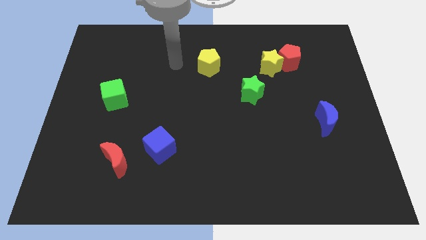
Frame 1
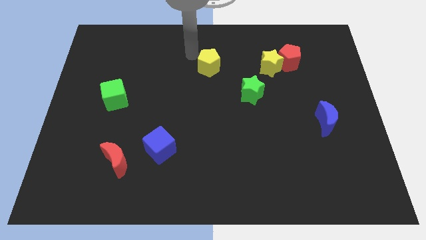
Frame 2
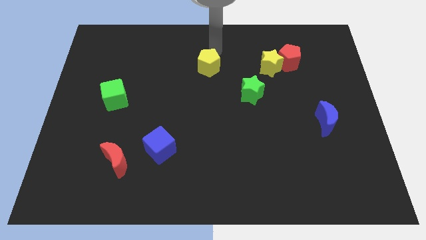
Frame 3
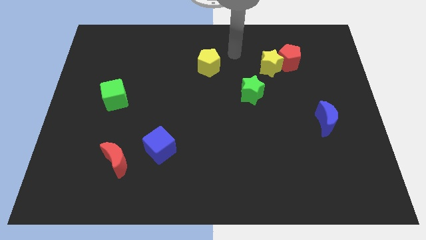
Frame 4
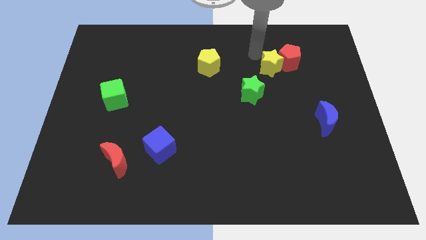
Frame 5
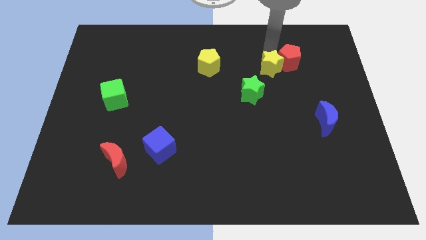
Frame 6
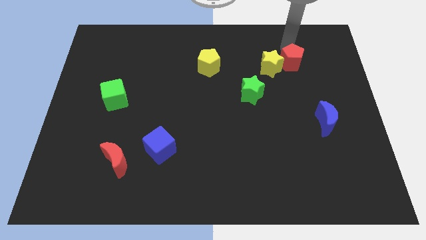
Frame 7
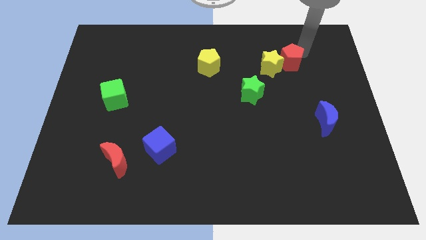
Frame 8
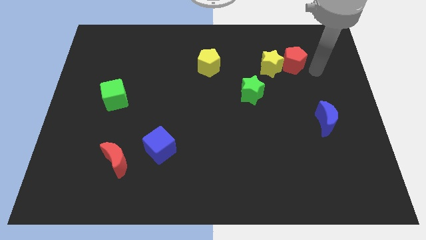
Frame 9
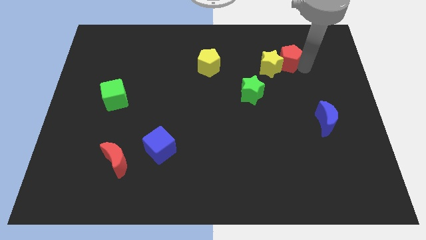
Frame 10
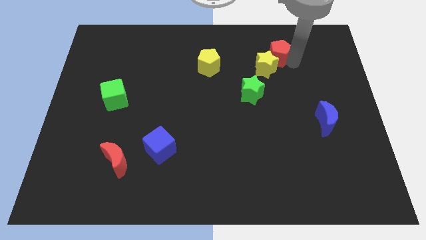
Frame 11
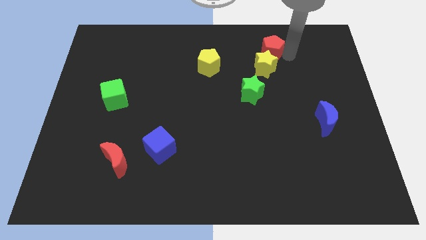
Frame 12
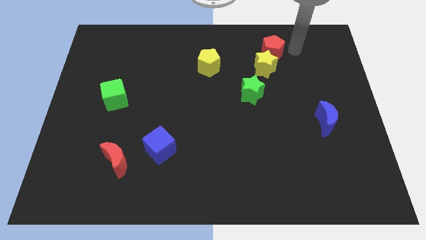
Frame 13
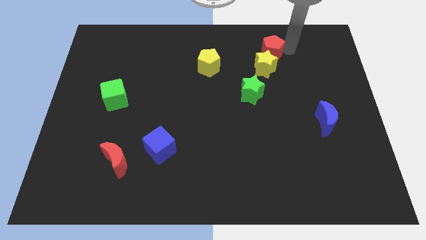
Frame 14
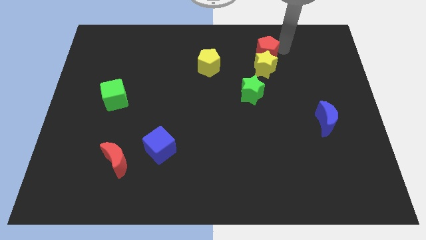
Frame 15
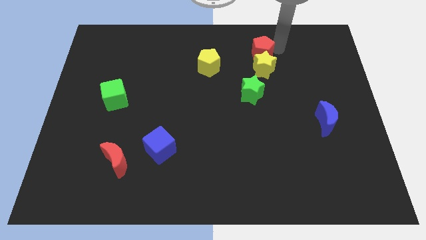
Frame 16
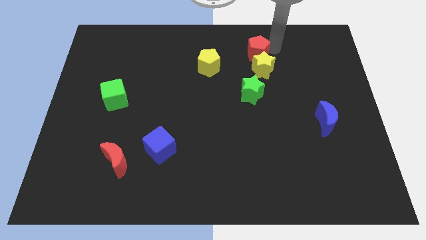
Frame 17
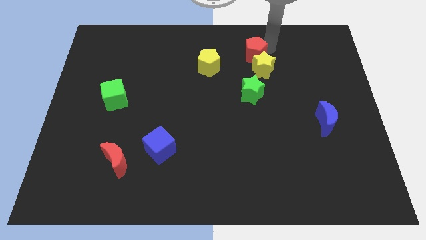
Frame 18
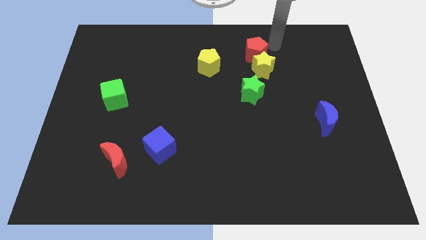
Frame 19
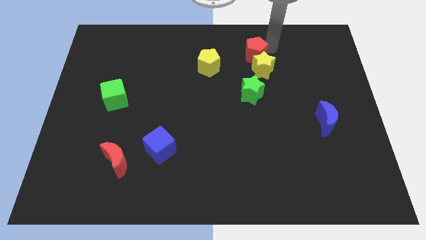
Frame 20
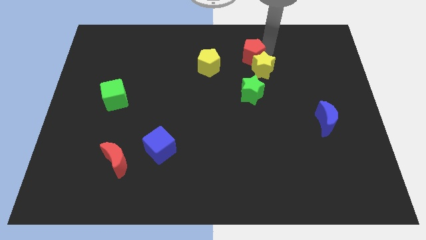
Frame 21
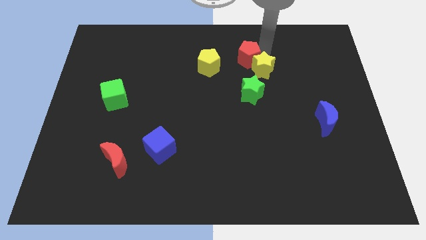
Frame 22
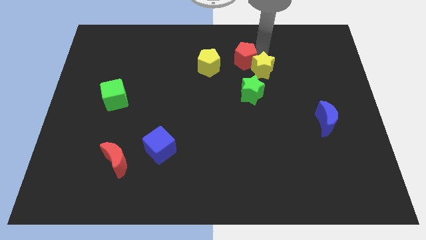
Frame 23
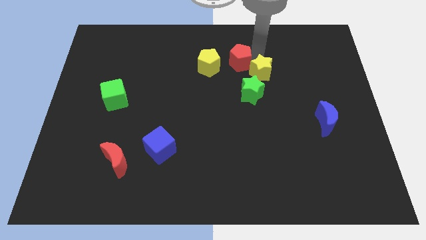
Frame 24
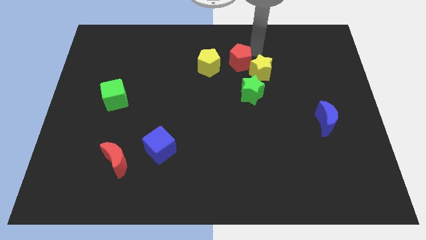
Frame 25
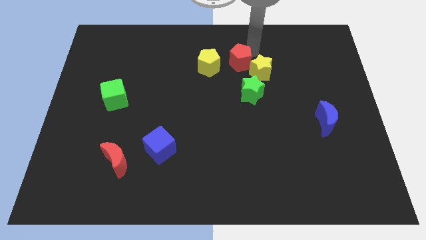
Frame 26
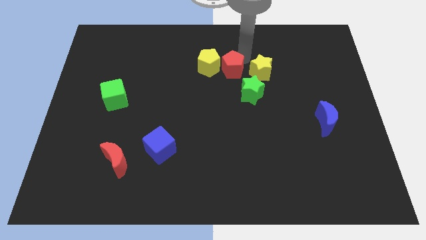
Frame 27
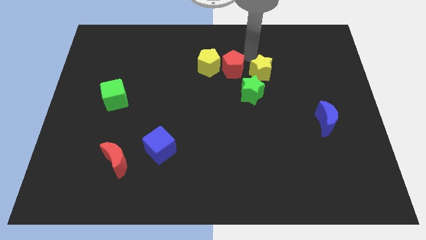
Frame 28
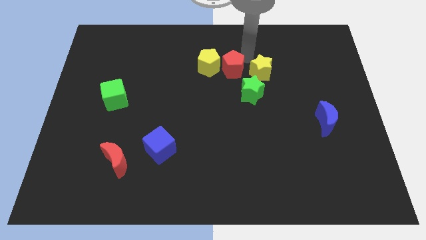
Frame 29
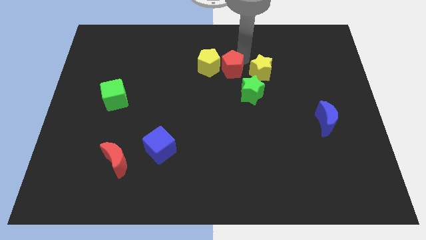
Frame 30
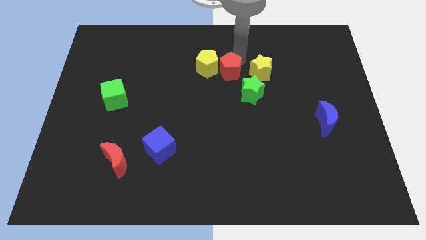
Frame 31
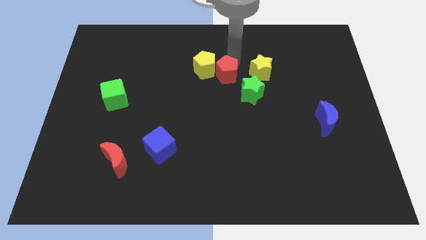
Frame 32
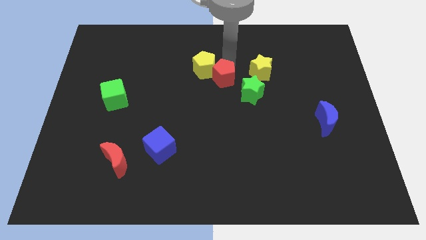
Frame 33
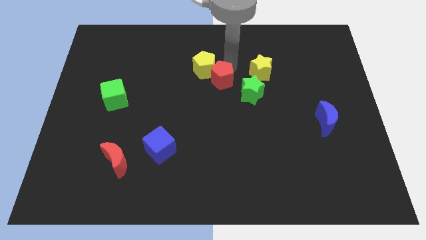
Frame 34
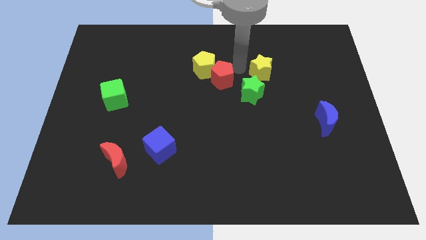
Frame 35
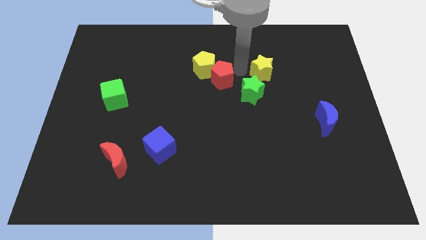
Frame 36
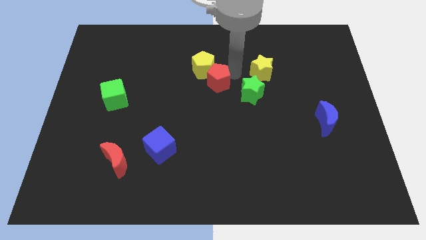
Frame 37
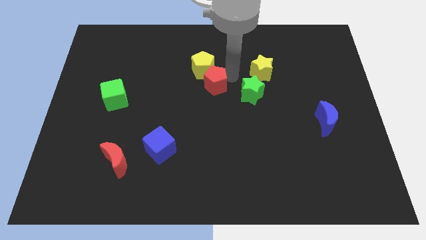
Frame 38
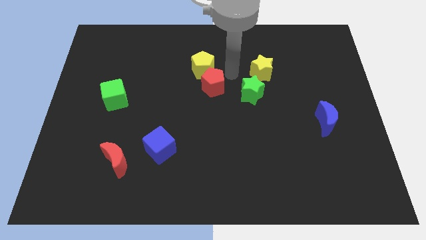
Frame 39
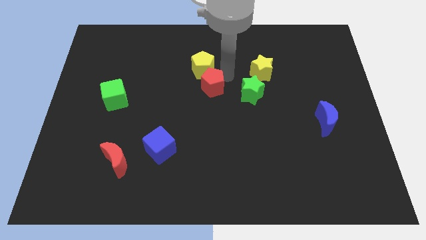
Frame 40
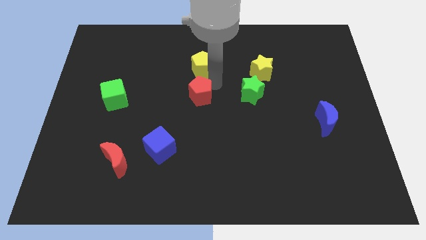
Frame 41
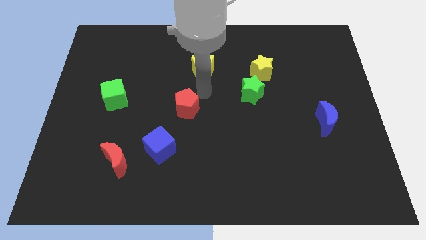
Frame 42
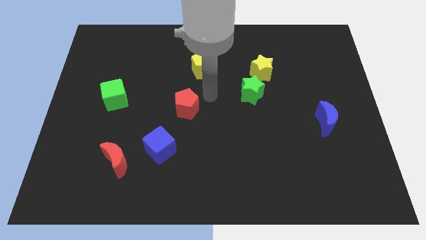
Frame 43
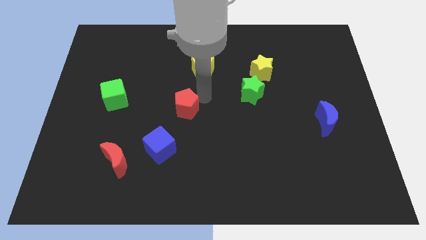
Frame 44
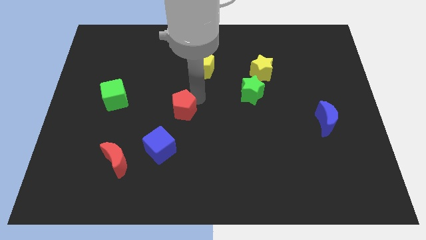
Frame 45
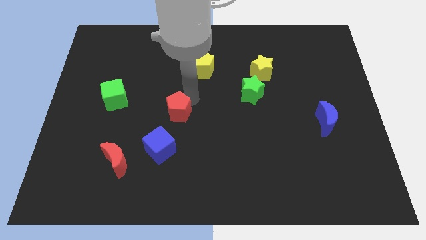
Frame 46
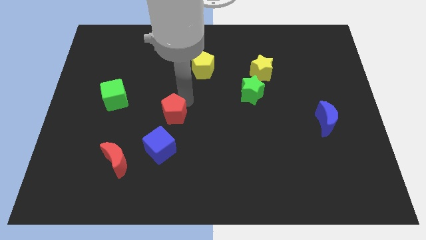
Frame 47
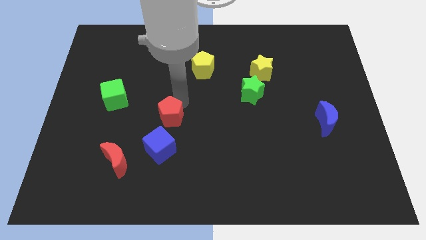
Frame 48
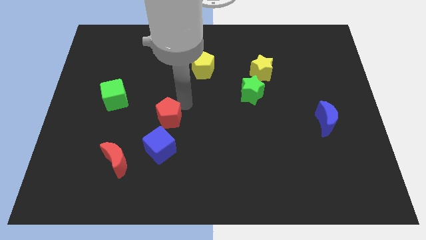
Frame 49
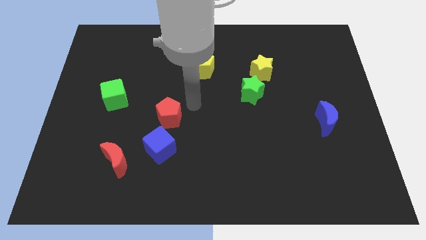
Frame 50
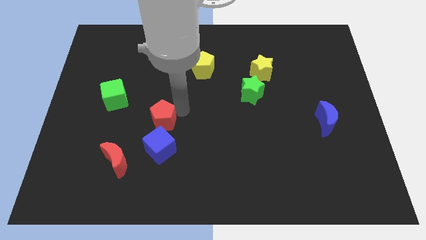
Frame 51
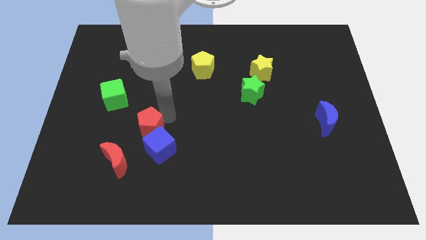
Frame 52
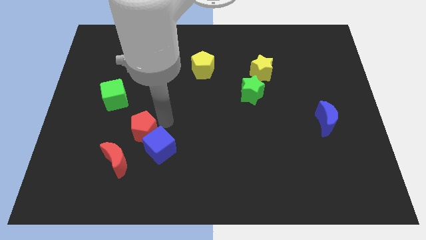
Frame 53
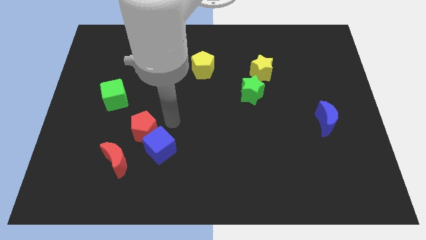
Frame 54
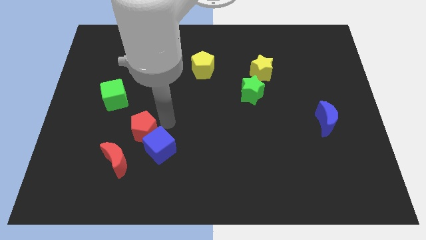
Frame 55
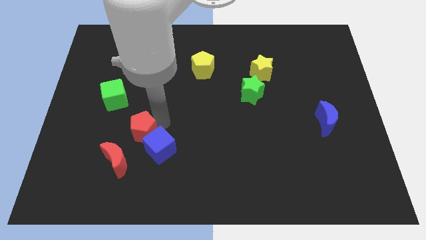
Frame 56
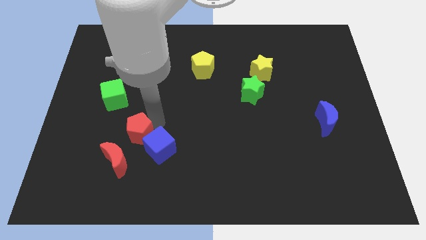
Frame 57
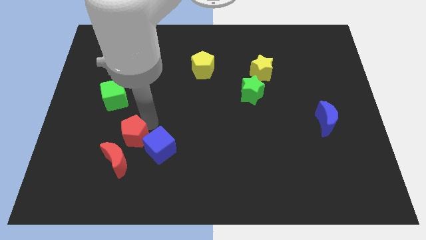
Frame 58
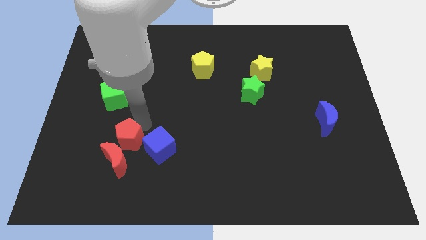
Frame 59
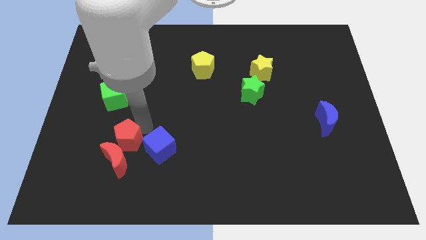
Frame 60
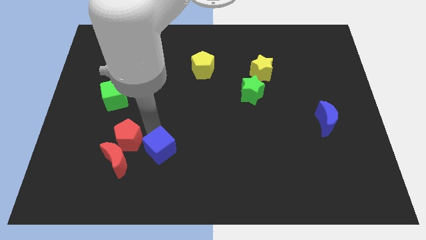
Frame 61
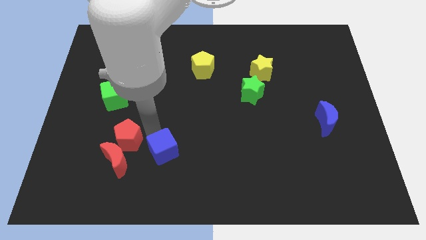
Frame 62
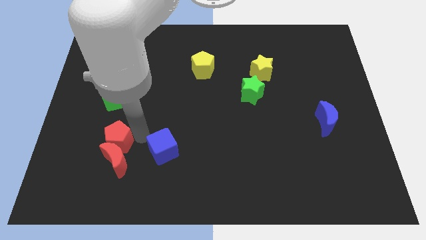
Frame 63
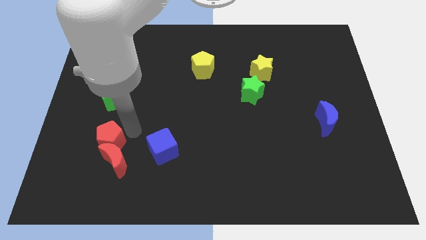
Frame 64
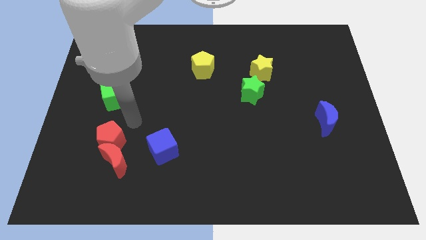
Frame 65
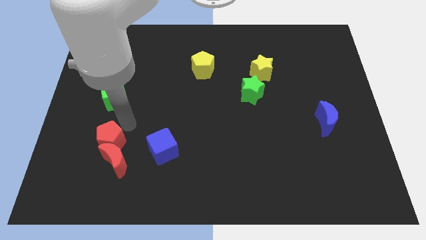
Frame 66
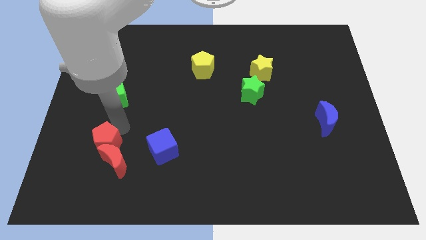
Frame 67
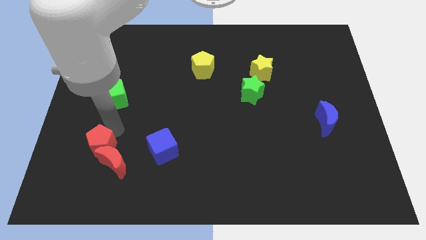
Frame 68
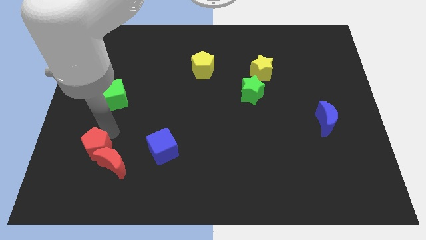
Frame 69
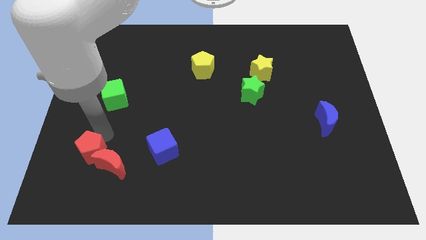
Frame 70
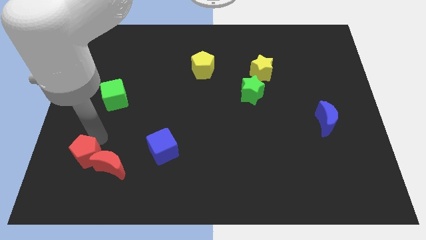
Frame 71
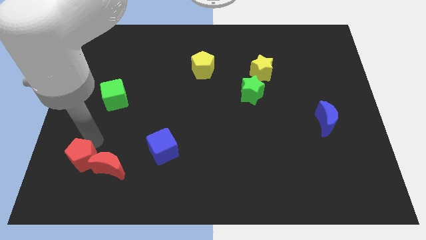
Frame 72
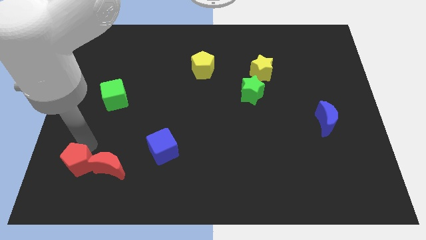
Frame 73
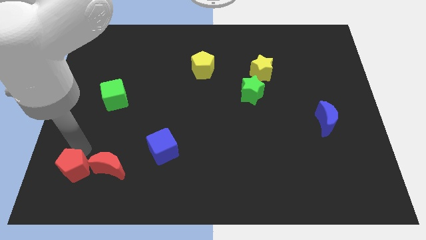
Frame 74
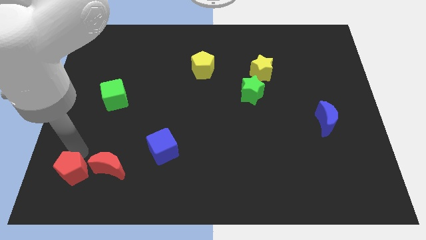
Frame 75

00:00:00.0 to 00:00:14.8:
move the red pentagon to the bottom left of the board
